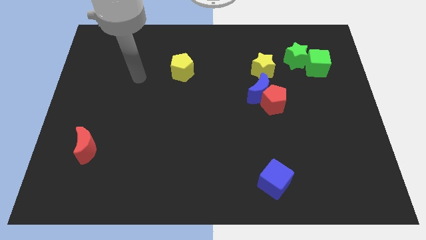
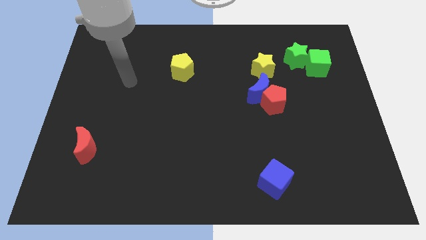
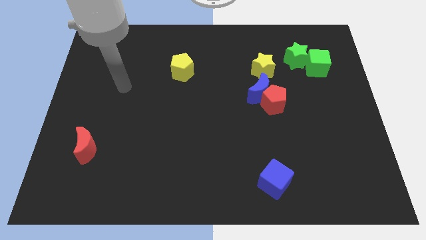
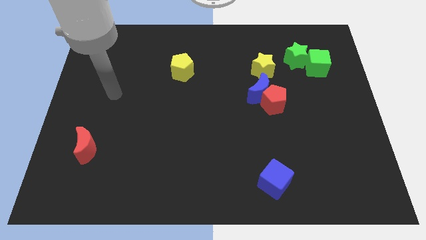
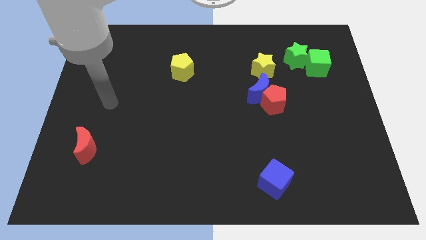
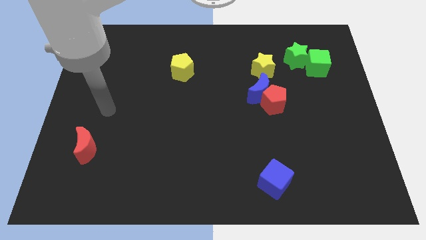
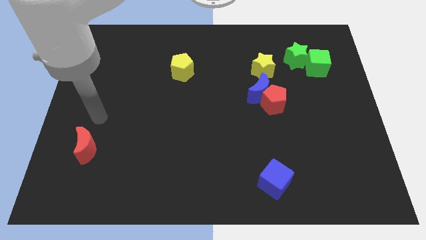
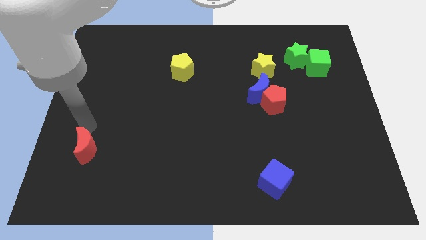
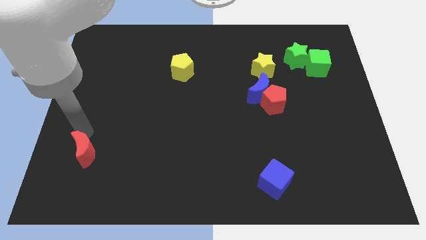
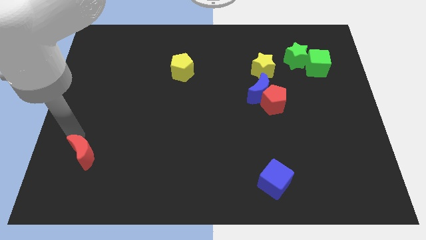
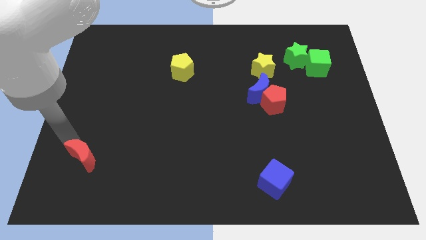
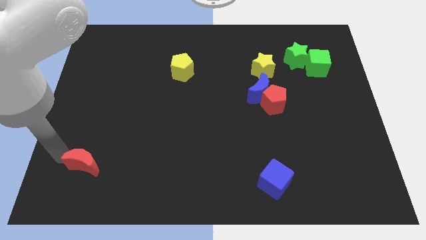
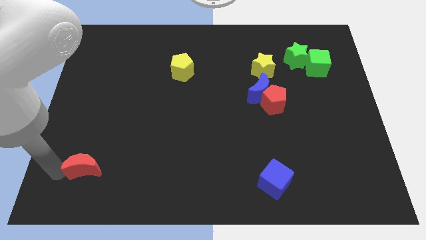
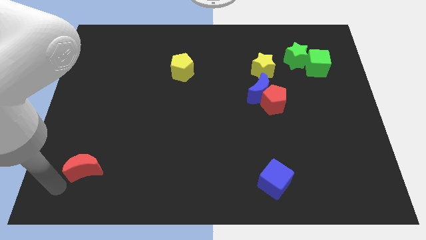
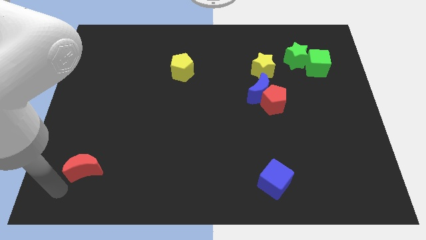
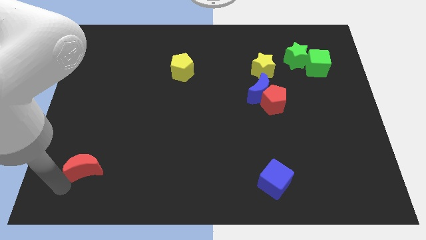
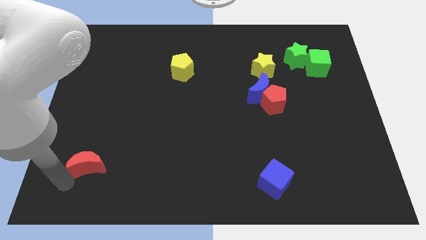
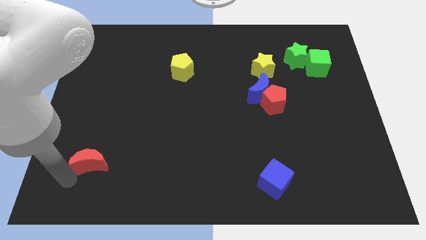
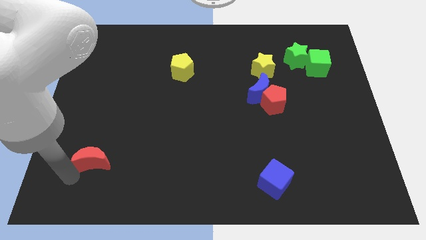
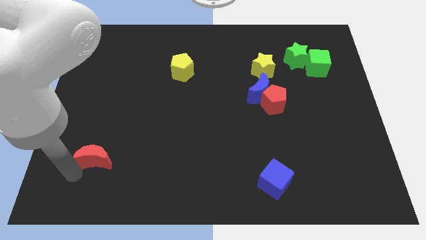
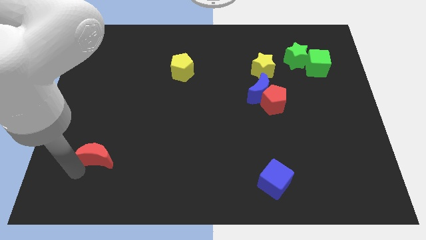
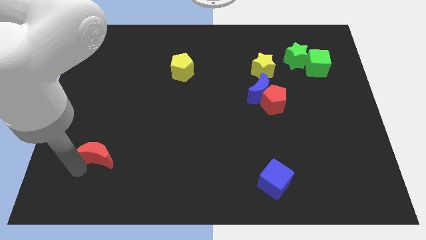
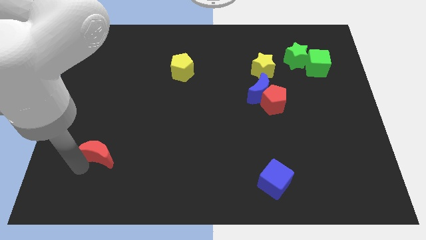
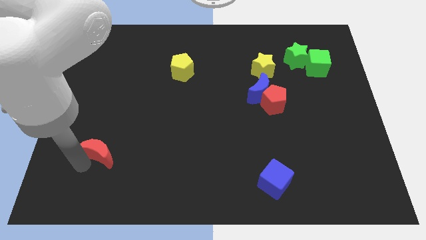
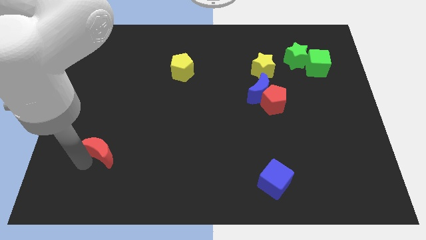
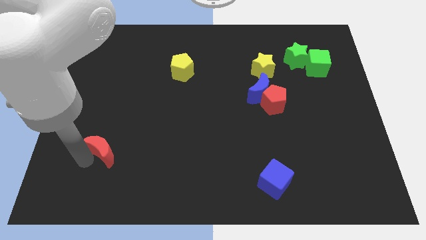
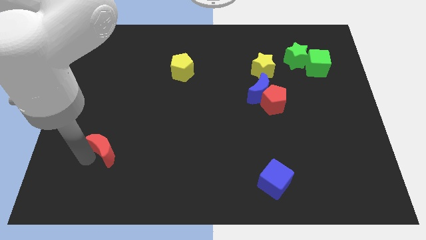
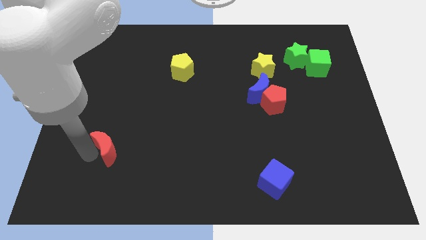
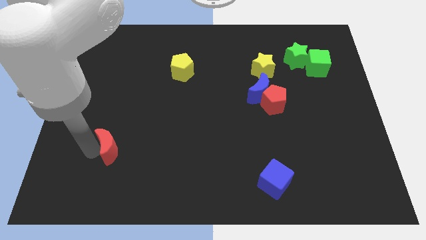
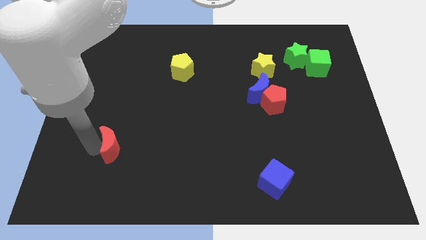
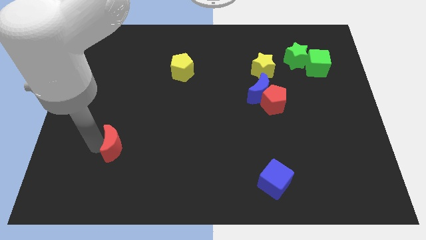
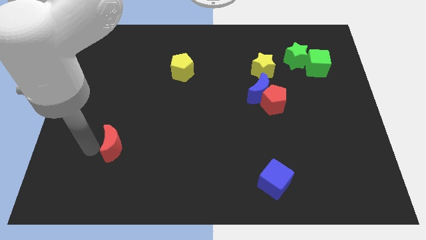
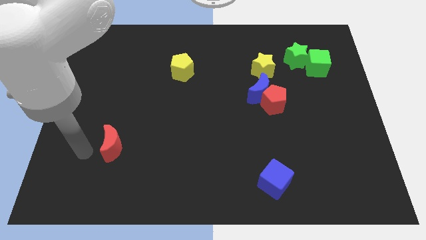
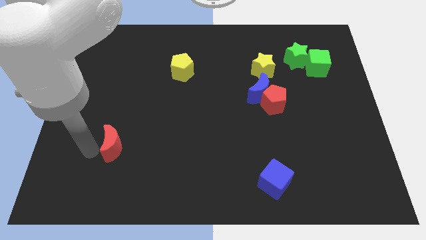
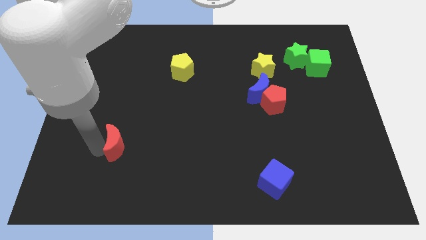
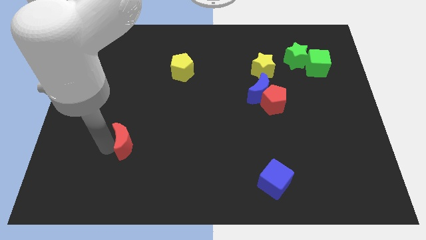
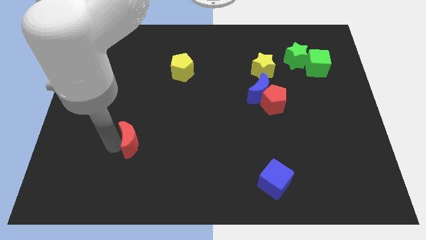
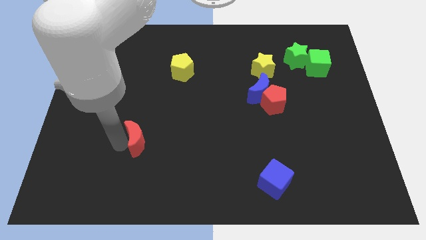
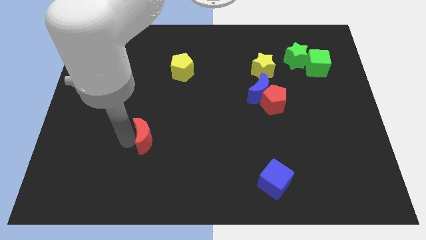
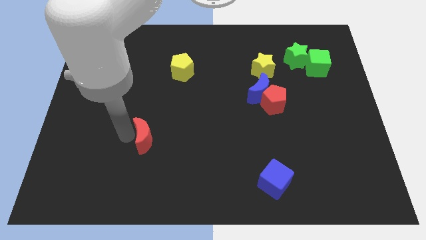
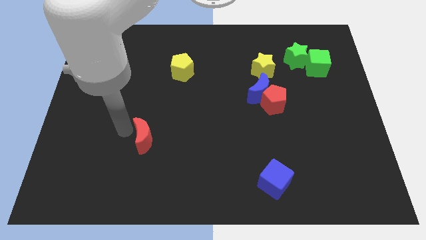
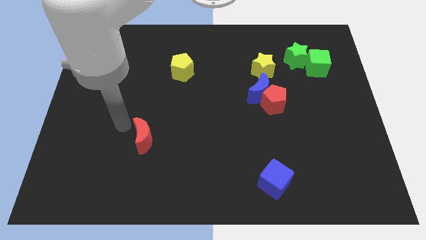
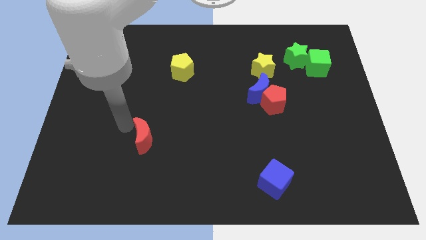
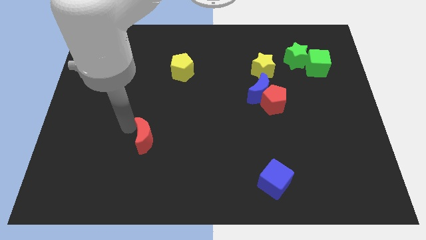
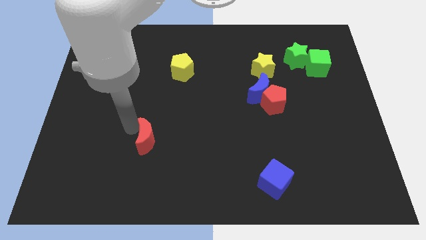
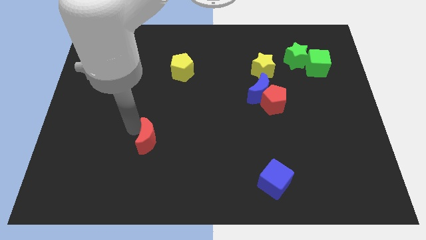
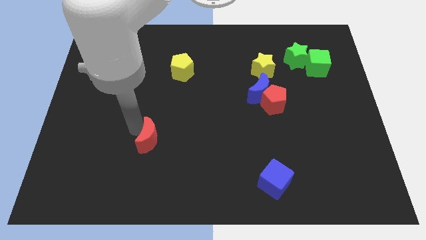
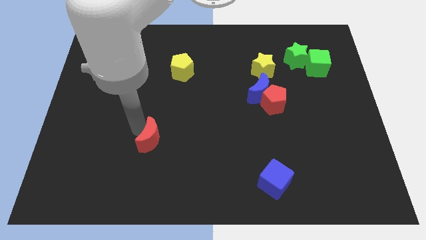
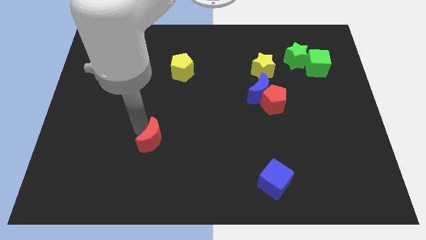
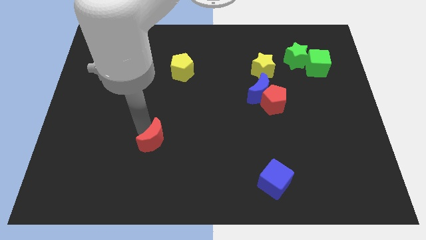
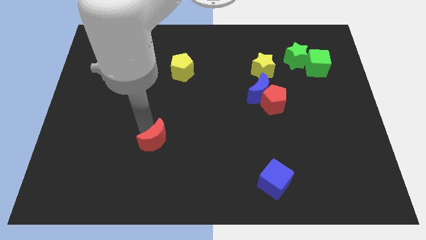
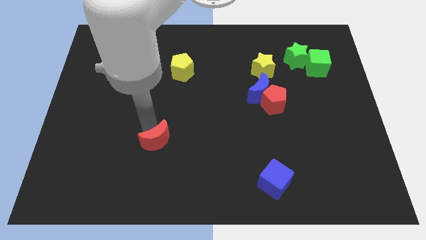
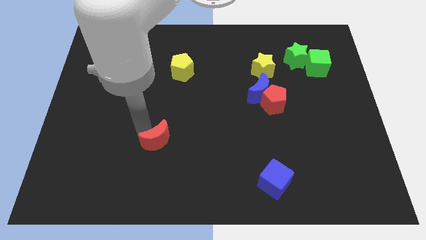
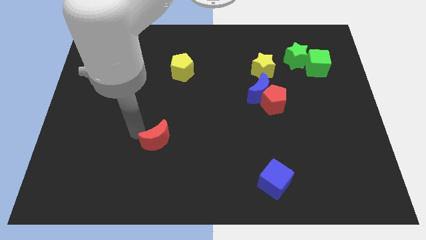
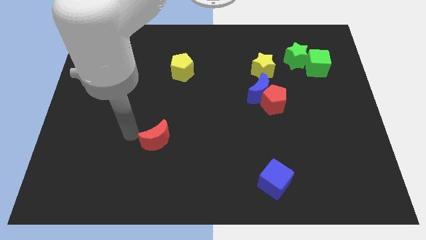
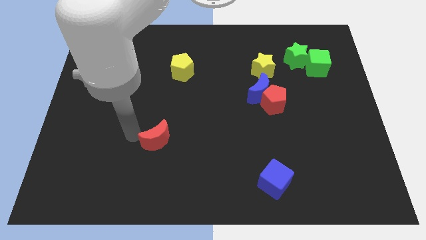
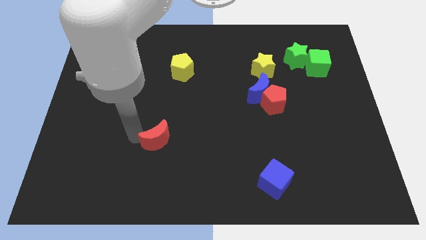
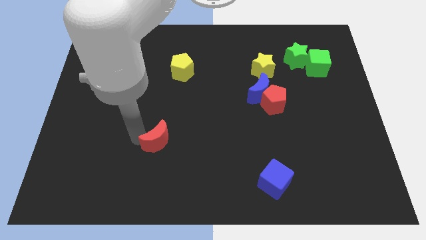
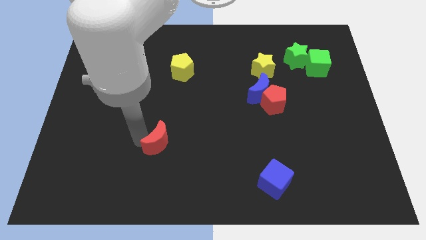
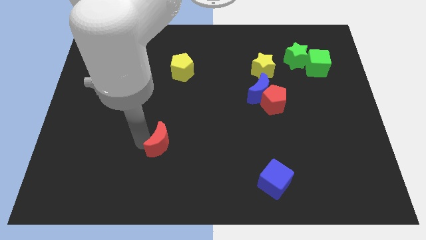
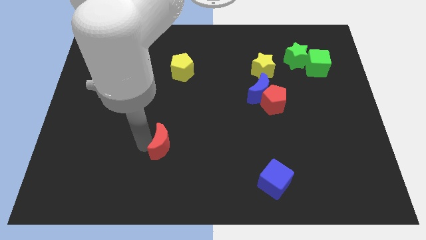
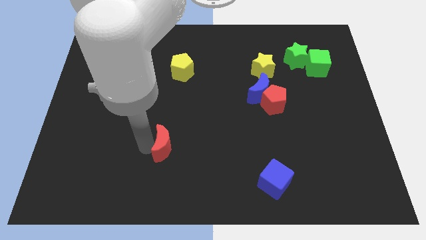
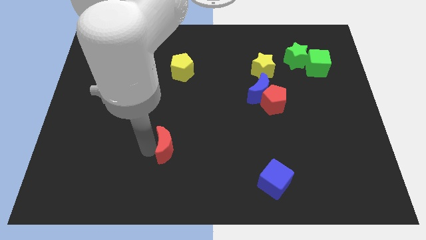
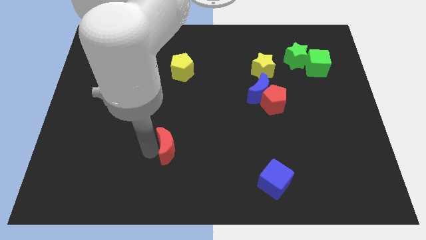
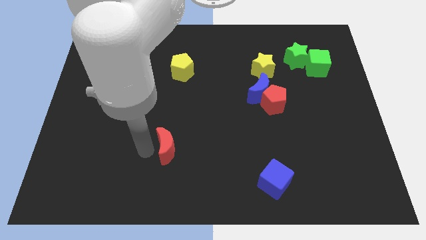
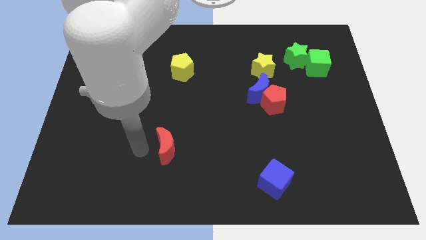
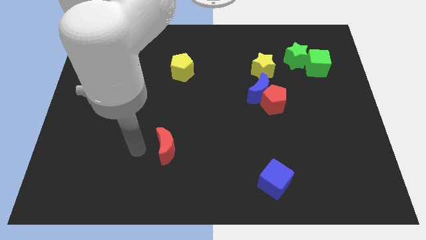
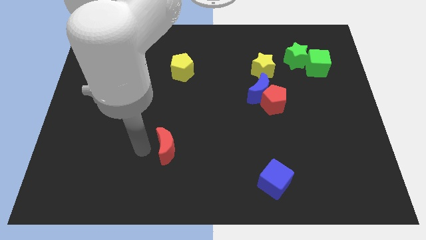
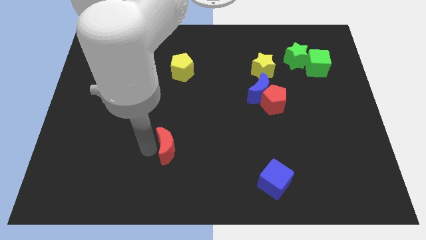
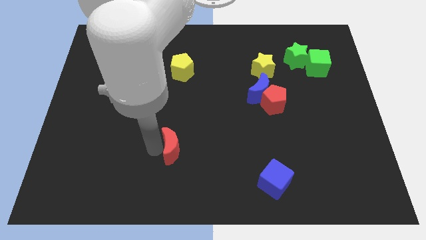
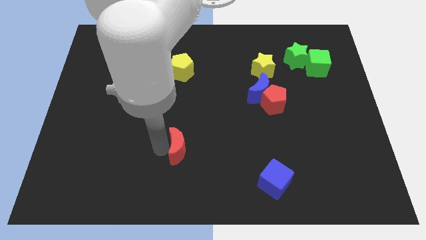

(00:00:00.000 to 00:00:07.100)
push the red moon right

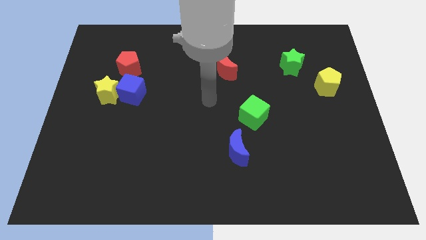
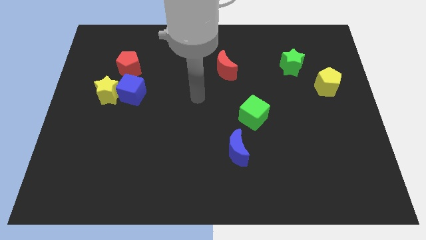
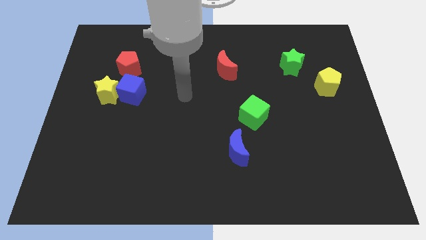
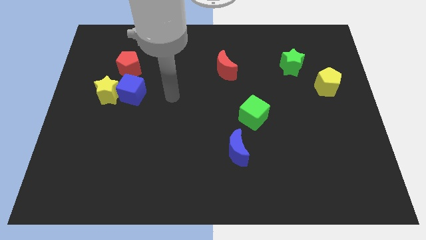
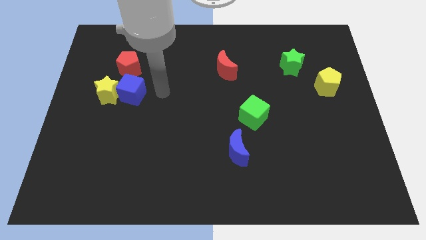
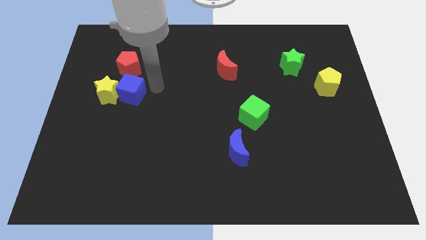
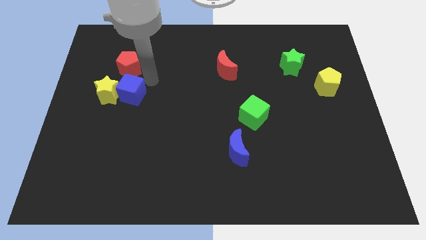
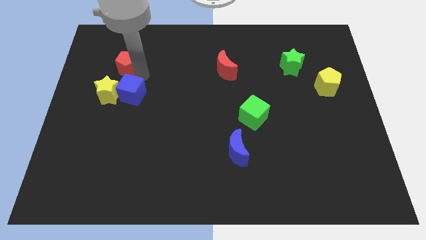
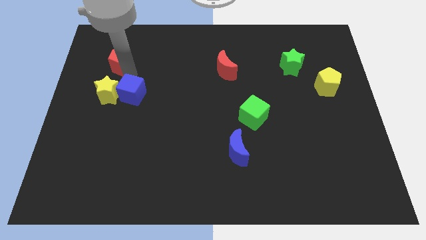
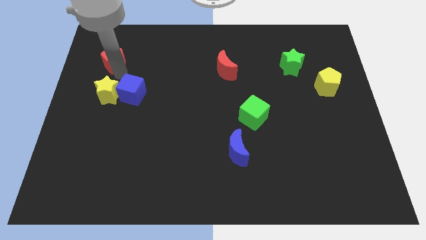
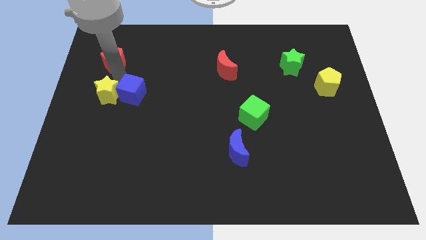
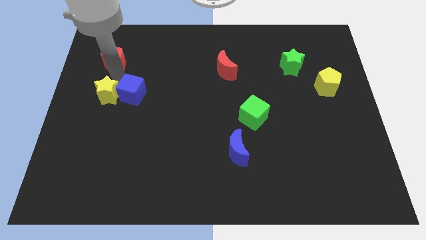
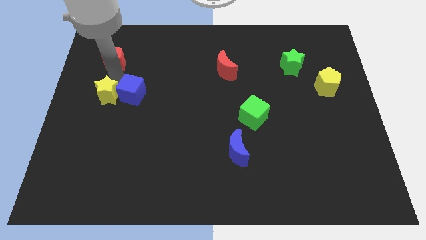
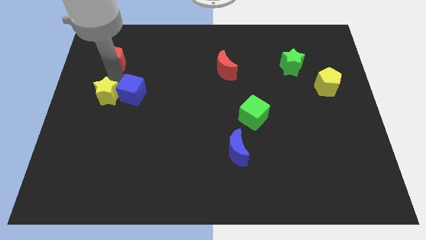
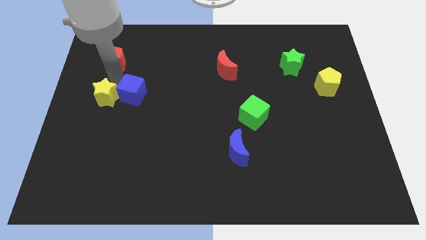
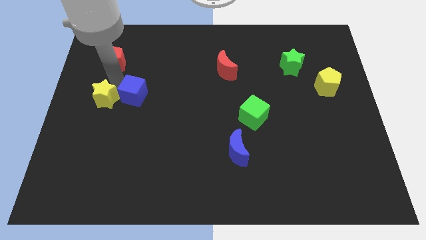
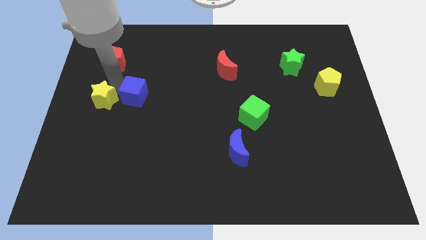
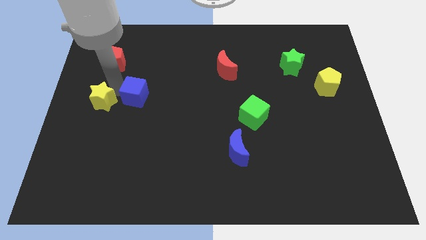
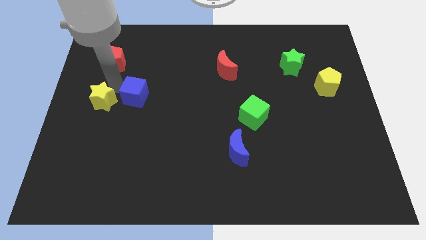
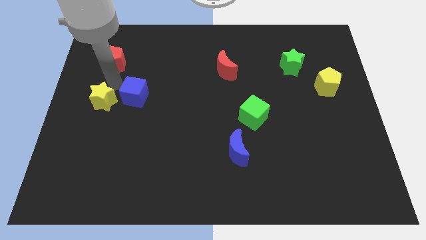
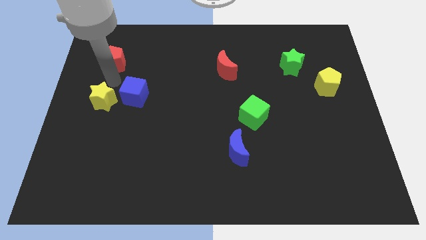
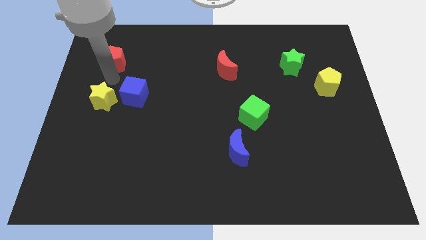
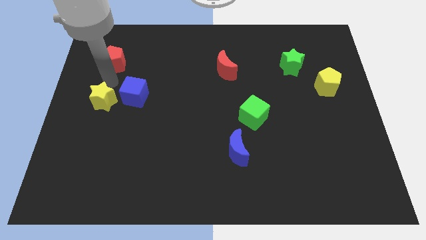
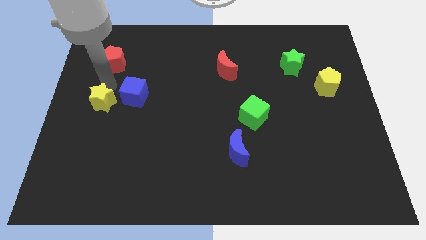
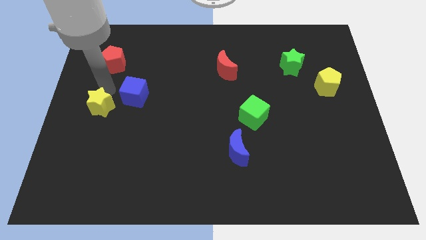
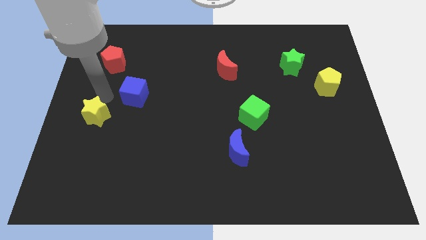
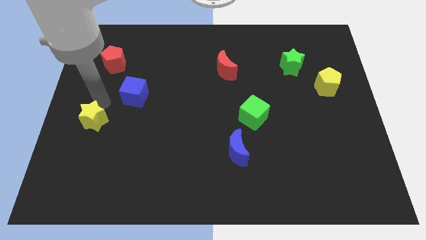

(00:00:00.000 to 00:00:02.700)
push the yellow star a bit down
